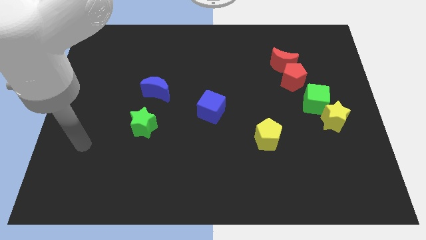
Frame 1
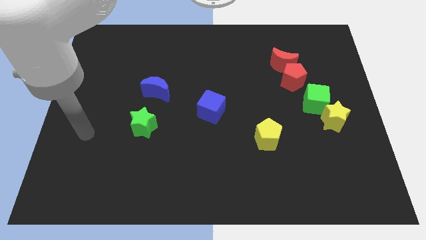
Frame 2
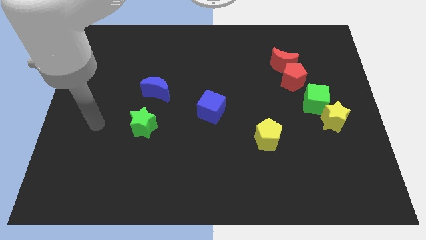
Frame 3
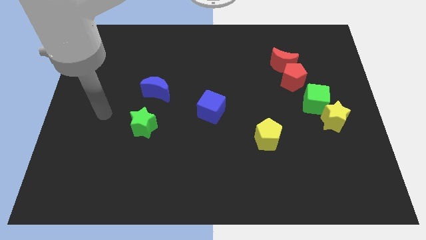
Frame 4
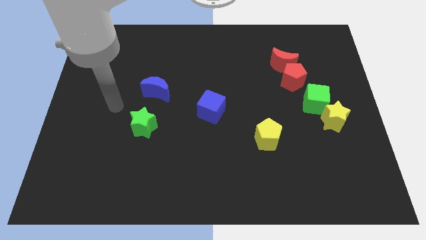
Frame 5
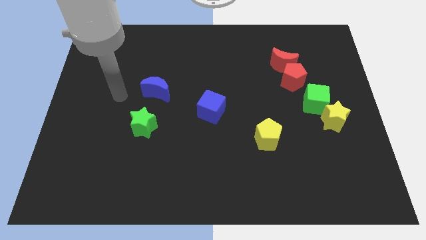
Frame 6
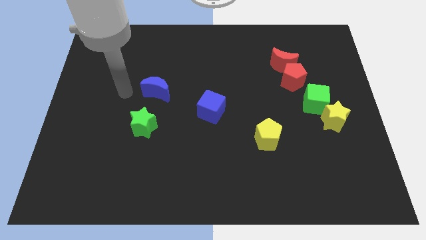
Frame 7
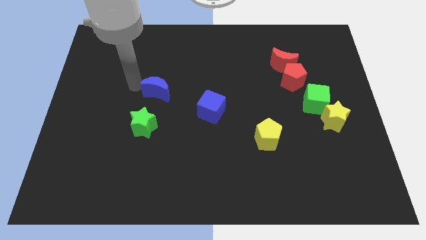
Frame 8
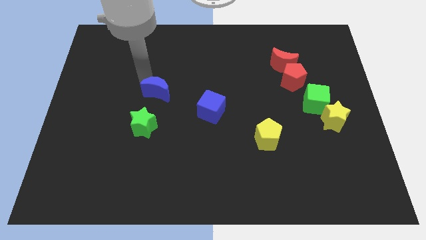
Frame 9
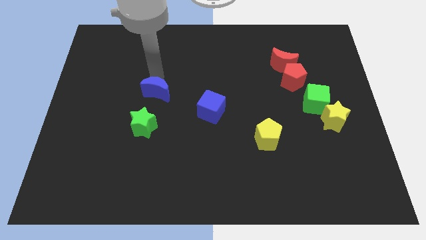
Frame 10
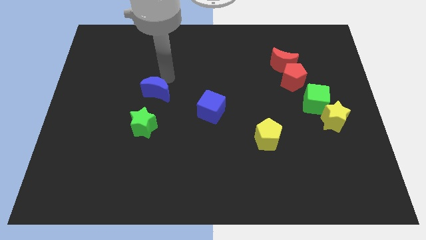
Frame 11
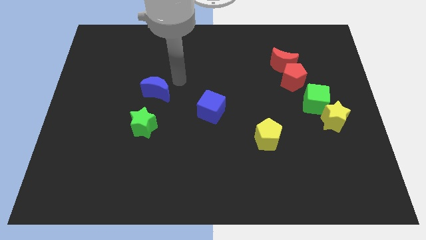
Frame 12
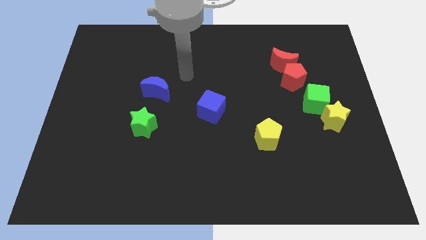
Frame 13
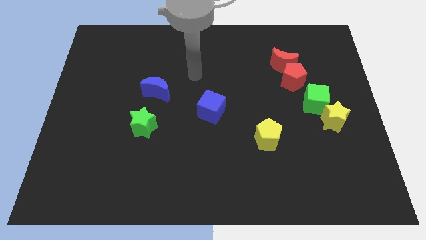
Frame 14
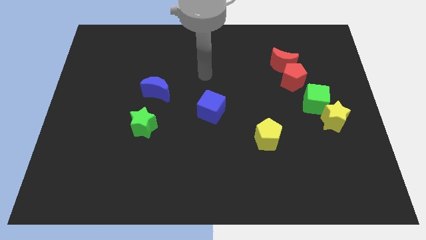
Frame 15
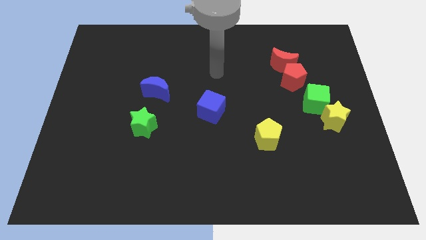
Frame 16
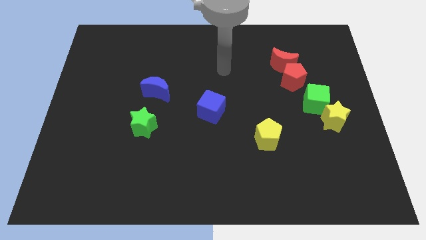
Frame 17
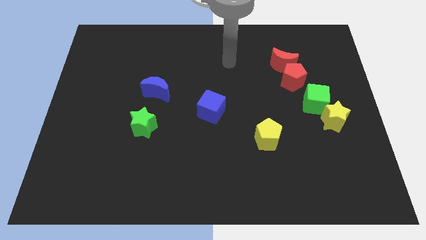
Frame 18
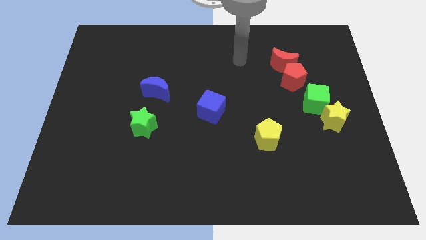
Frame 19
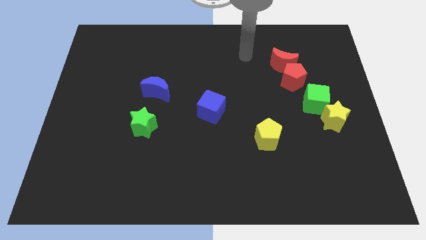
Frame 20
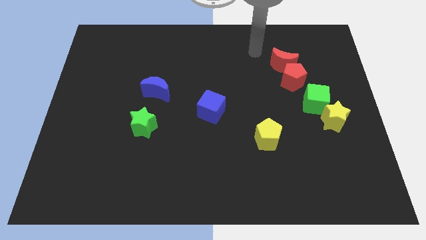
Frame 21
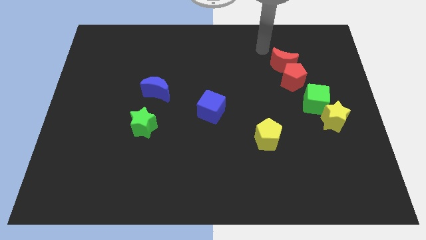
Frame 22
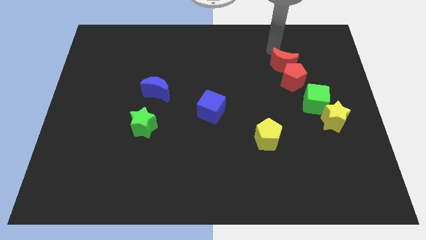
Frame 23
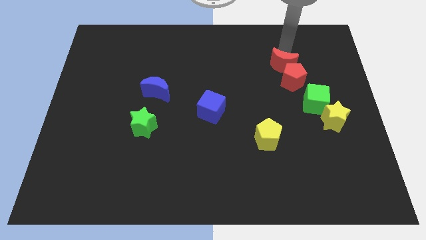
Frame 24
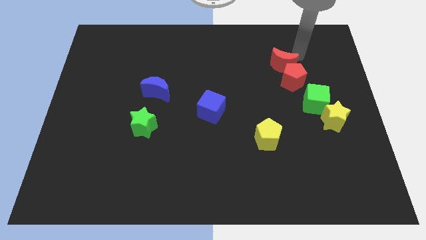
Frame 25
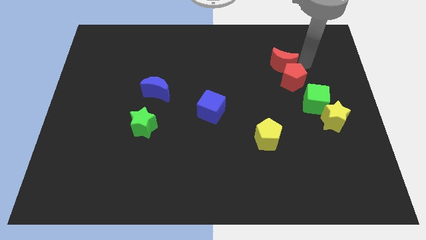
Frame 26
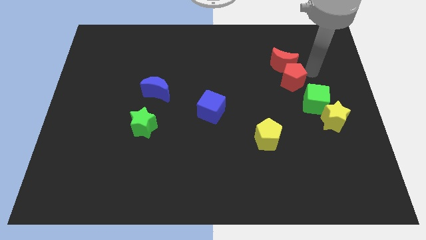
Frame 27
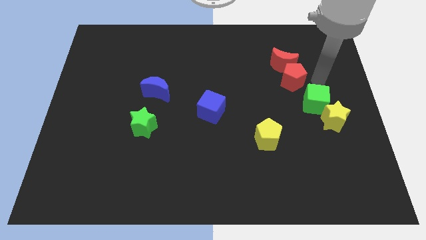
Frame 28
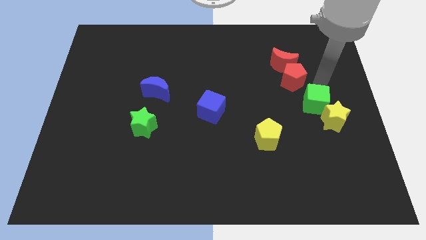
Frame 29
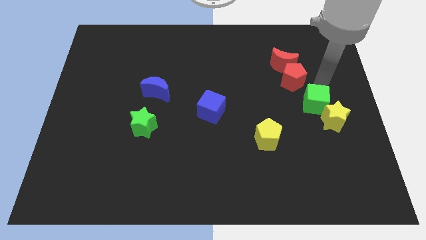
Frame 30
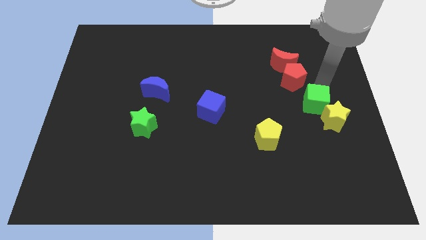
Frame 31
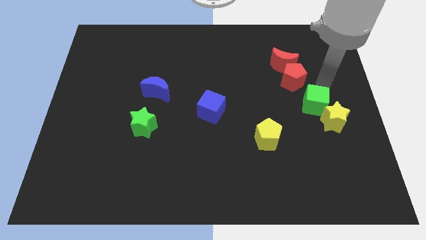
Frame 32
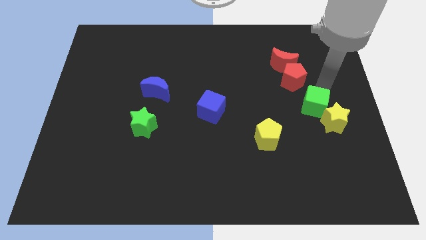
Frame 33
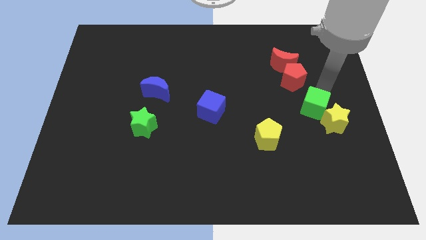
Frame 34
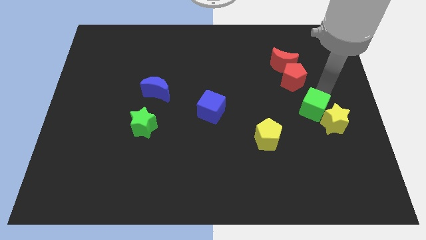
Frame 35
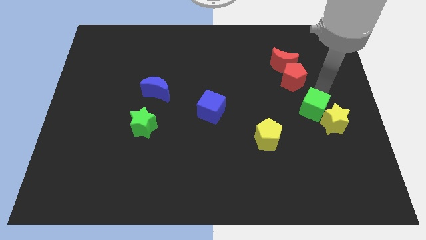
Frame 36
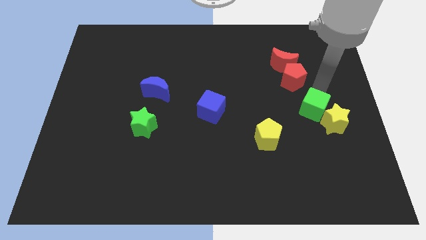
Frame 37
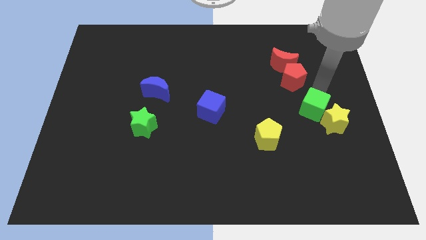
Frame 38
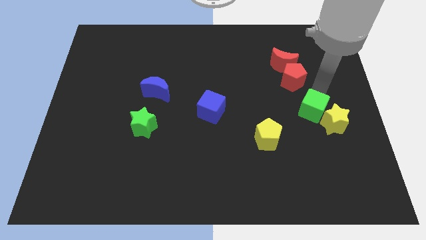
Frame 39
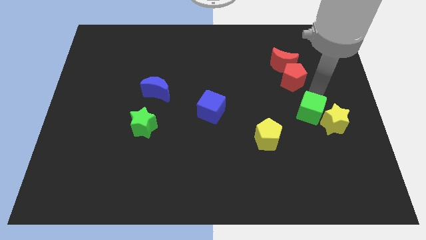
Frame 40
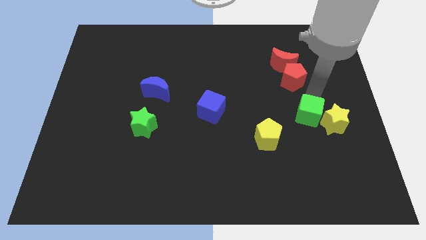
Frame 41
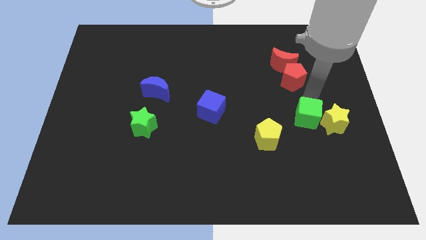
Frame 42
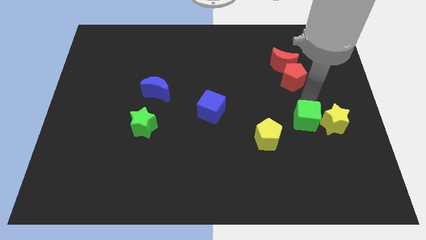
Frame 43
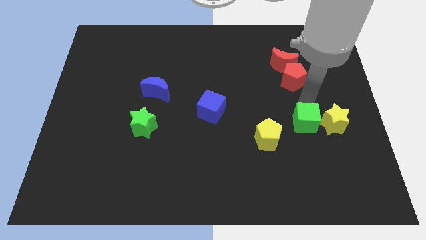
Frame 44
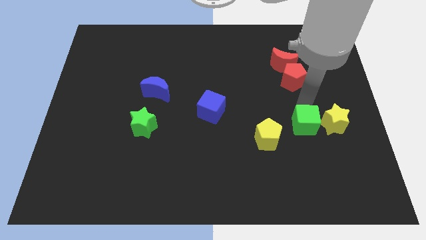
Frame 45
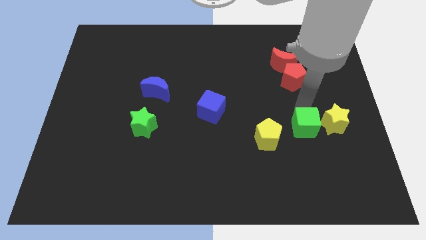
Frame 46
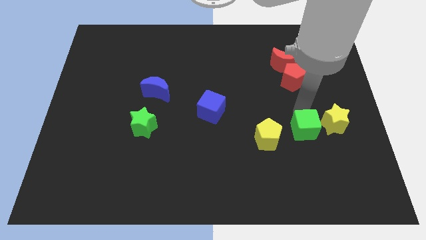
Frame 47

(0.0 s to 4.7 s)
slightly move the green cube downwards

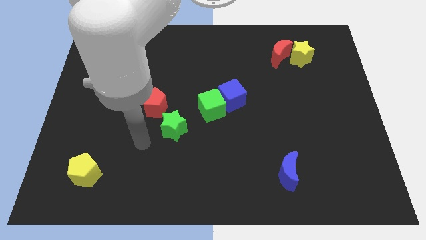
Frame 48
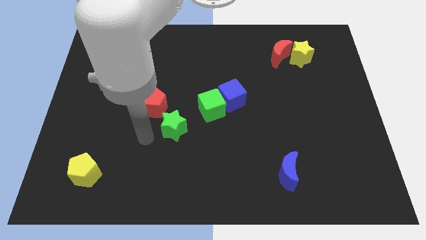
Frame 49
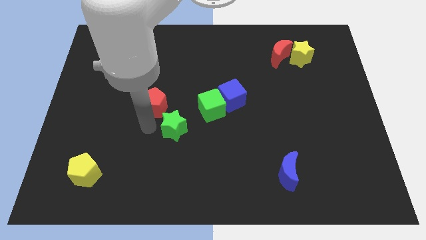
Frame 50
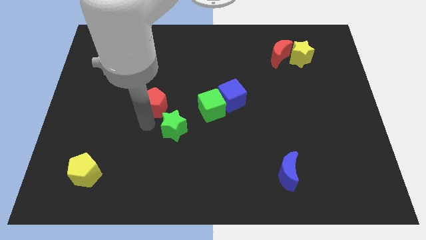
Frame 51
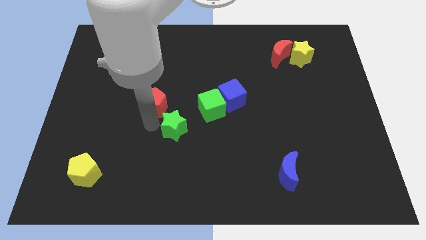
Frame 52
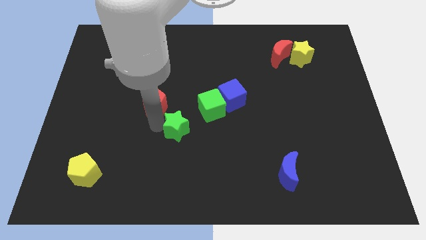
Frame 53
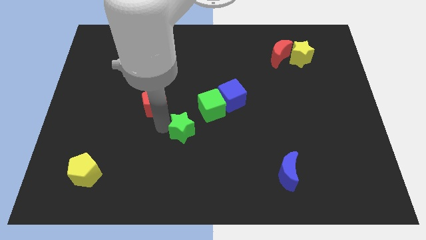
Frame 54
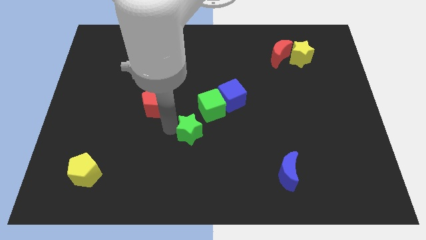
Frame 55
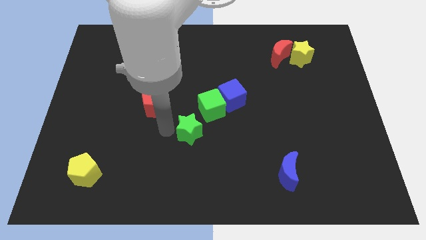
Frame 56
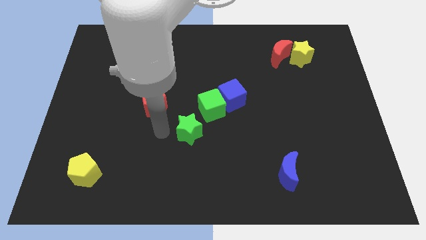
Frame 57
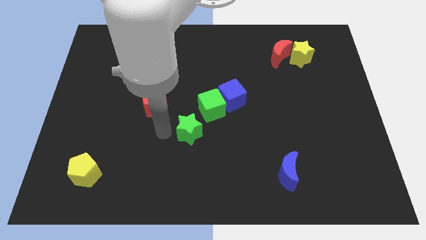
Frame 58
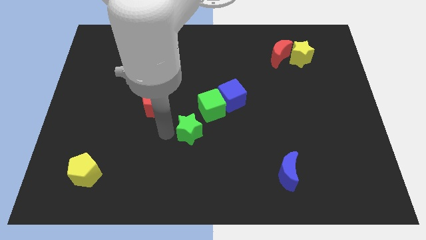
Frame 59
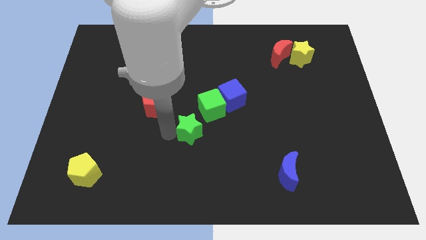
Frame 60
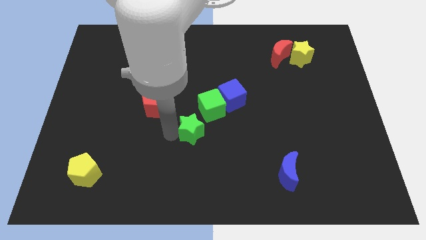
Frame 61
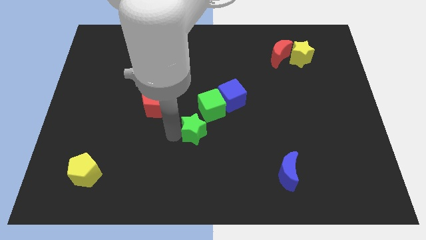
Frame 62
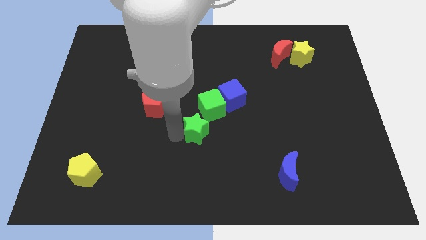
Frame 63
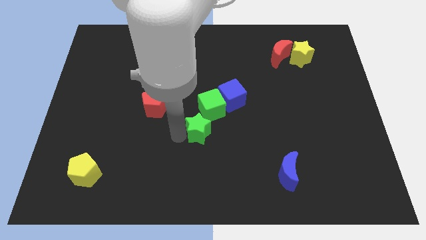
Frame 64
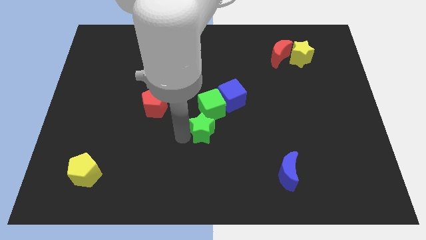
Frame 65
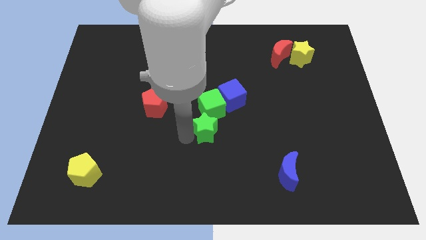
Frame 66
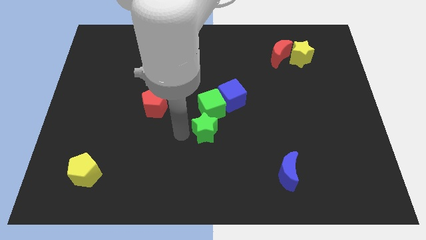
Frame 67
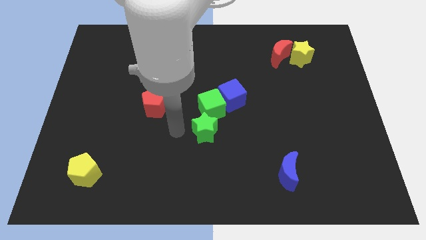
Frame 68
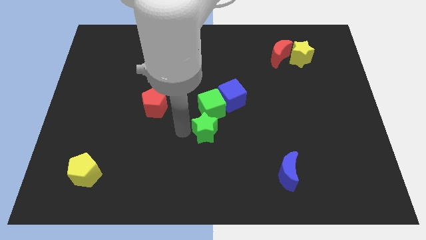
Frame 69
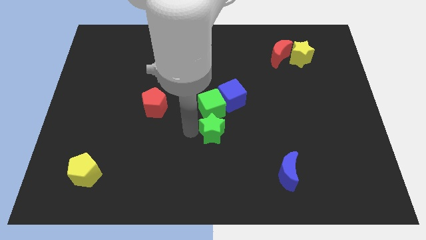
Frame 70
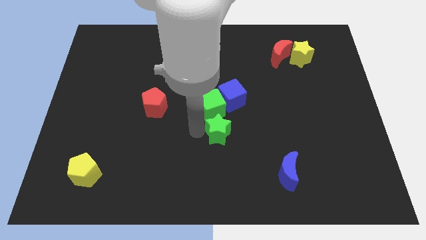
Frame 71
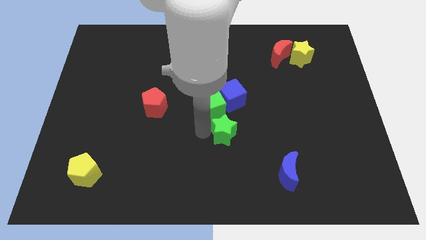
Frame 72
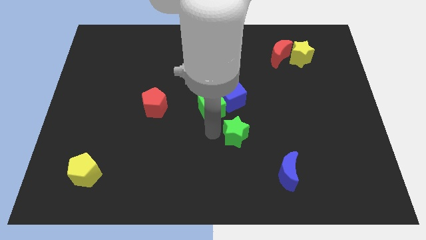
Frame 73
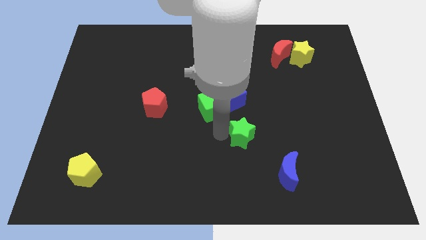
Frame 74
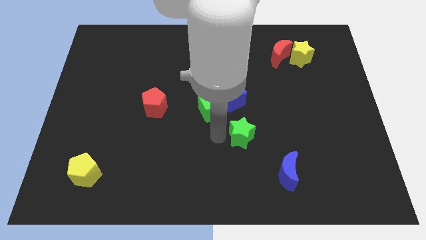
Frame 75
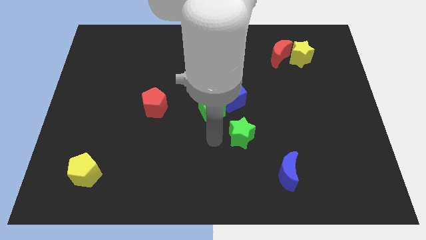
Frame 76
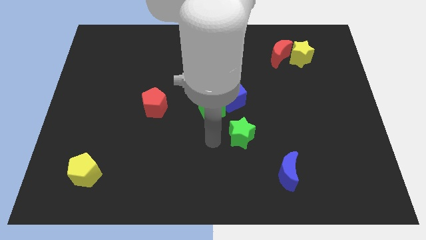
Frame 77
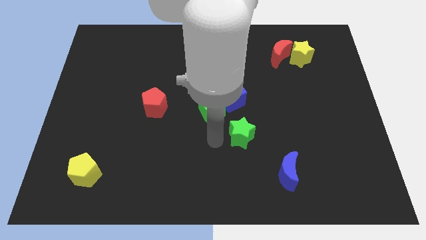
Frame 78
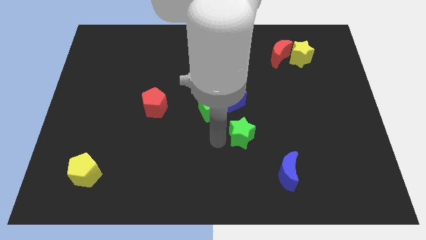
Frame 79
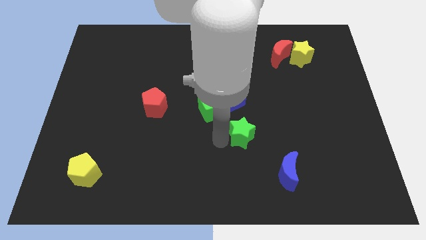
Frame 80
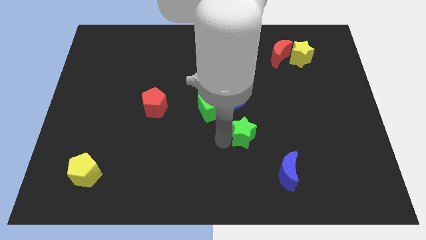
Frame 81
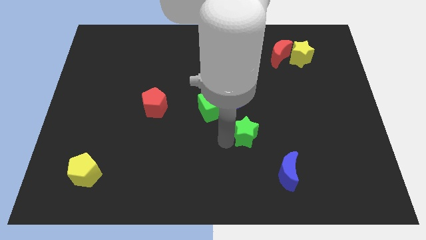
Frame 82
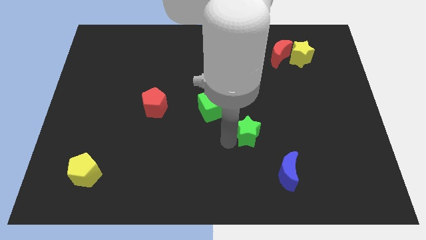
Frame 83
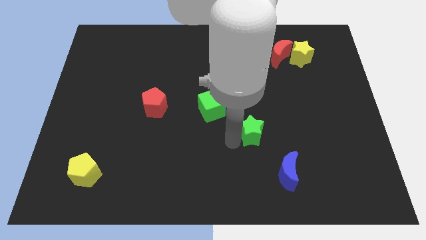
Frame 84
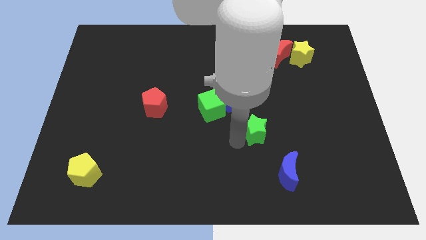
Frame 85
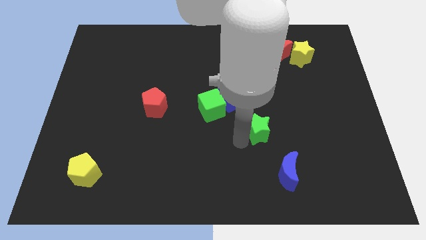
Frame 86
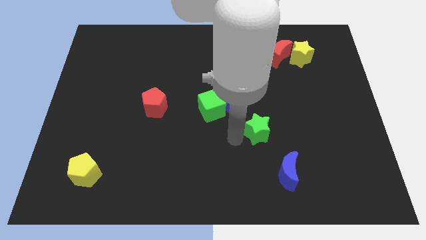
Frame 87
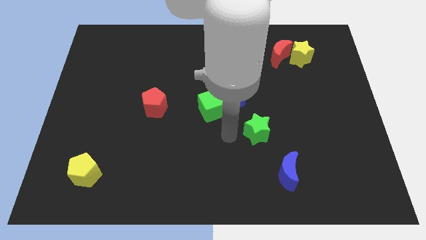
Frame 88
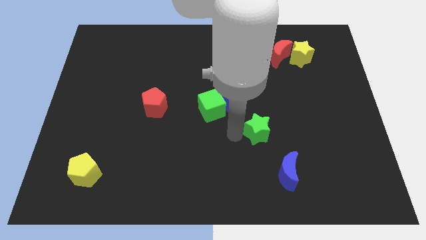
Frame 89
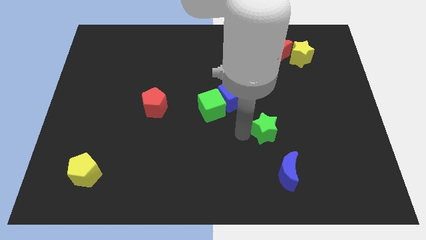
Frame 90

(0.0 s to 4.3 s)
slide the green star right
